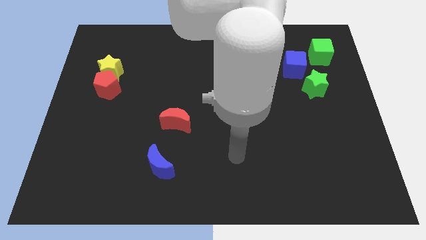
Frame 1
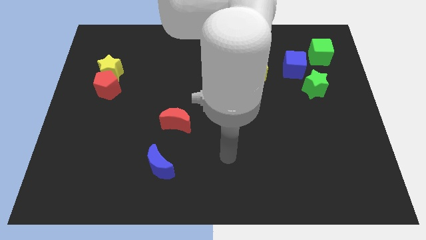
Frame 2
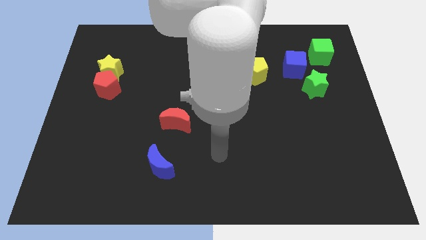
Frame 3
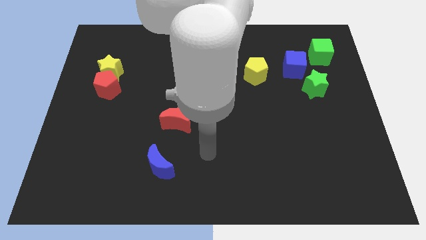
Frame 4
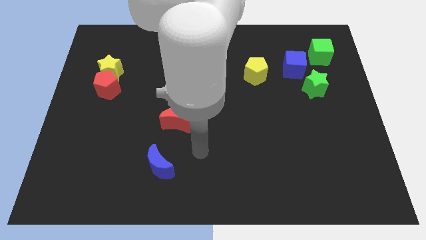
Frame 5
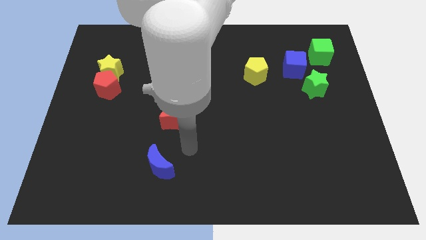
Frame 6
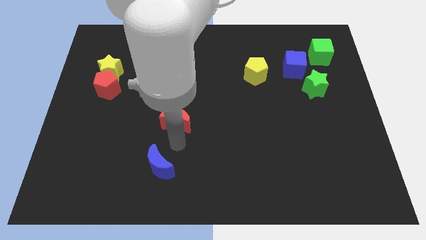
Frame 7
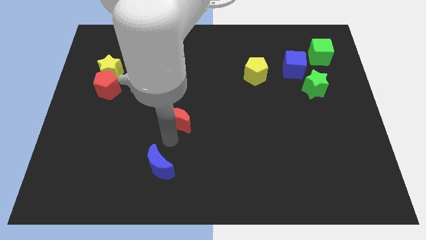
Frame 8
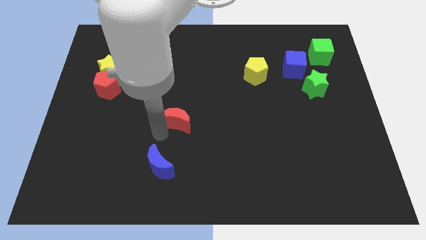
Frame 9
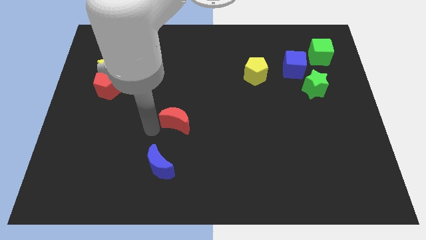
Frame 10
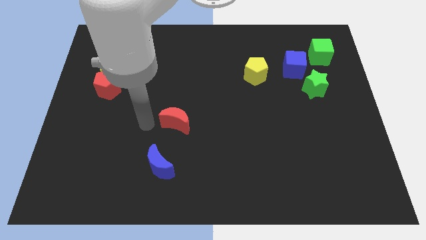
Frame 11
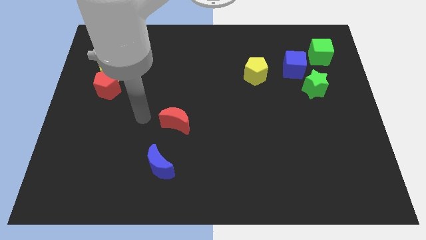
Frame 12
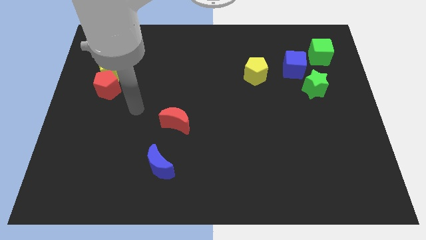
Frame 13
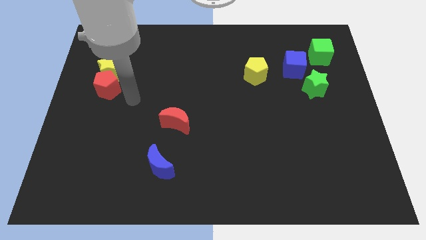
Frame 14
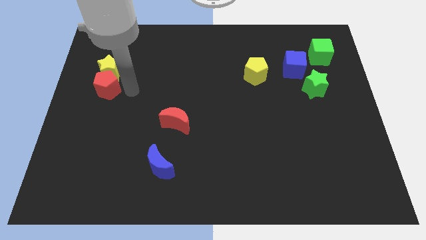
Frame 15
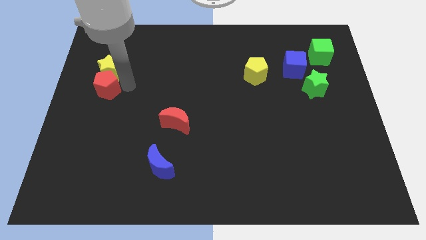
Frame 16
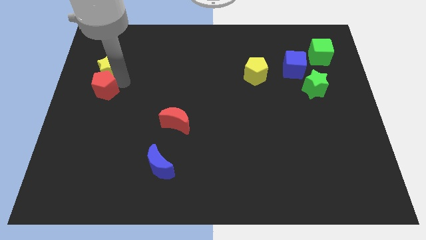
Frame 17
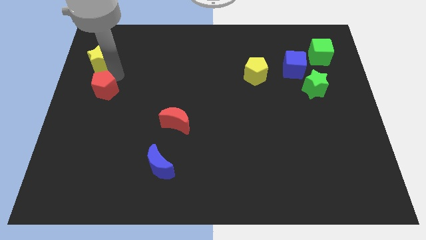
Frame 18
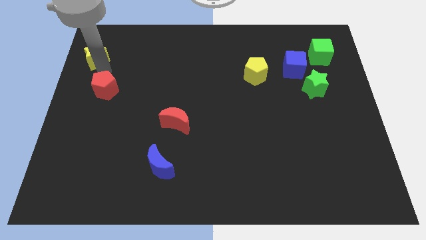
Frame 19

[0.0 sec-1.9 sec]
move the red pentagon away from the yellow star

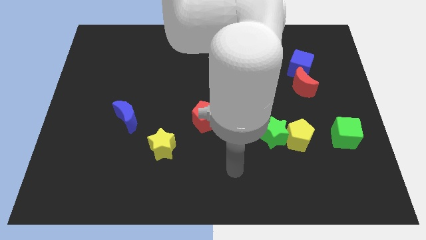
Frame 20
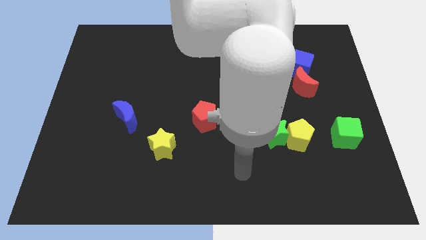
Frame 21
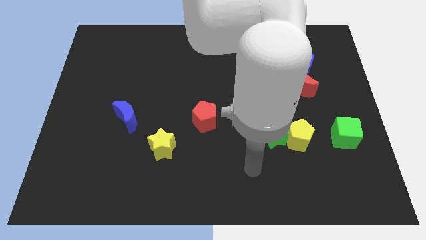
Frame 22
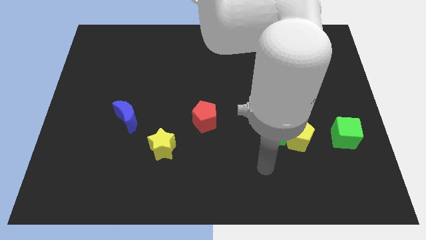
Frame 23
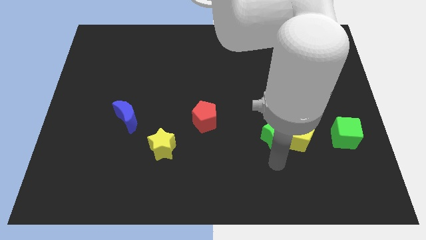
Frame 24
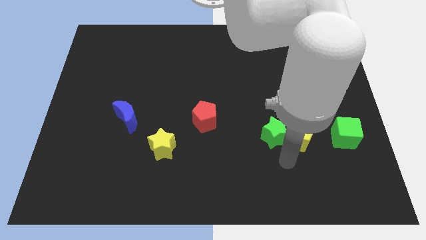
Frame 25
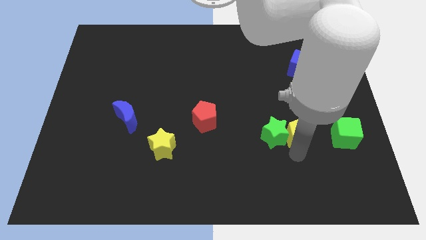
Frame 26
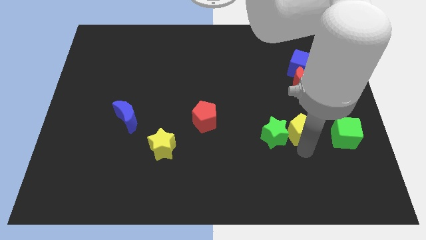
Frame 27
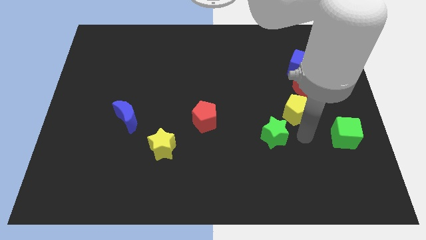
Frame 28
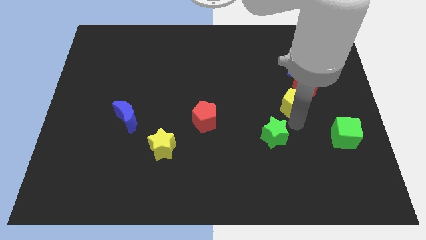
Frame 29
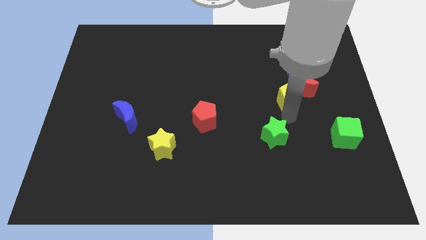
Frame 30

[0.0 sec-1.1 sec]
move the green star away from the yellow pentagon

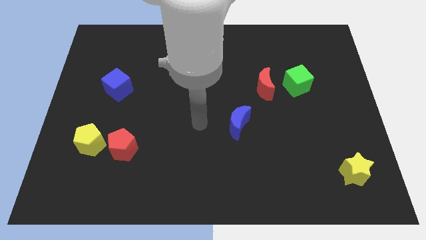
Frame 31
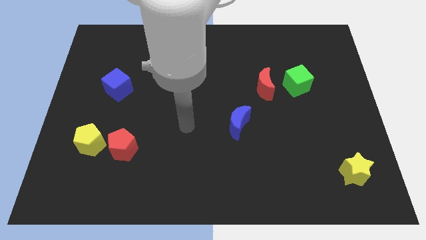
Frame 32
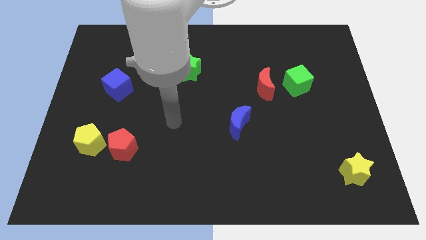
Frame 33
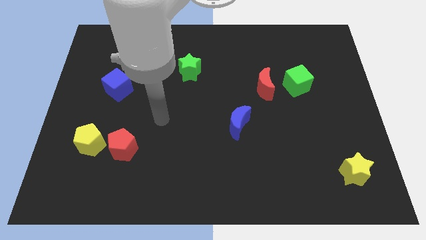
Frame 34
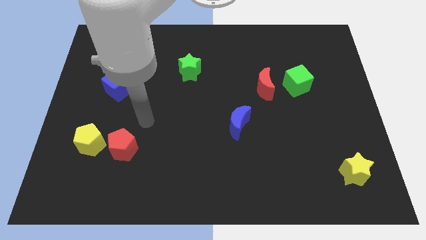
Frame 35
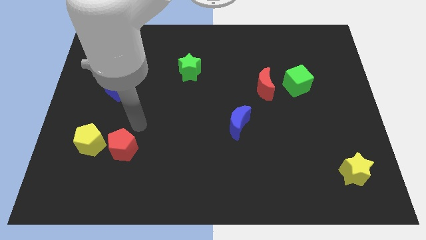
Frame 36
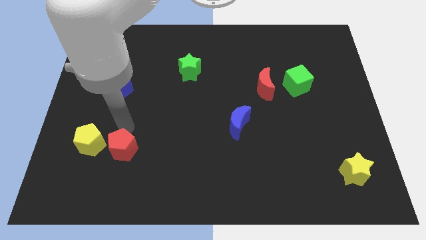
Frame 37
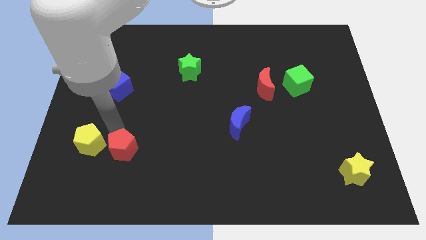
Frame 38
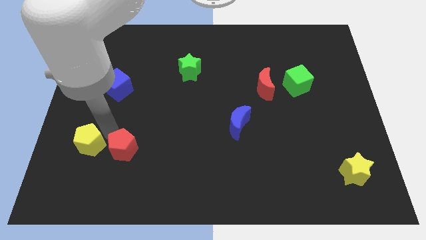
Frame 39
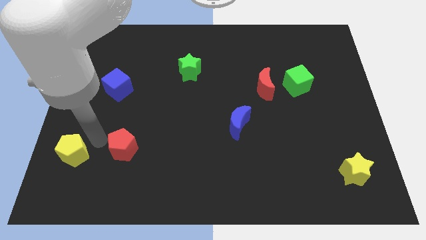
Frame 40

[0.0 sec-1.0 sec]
separate the red pentagon from the yellow pentagon

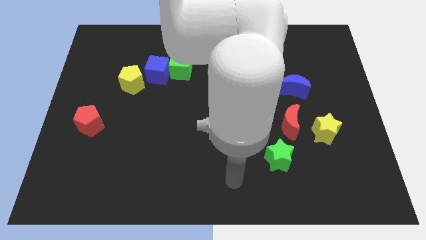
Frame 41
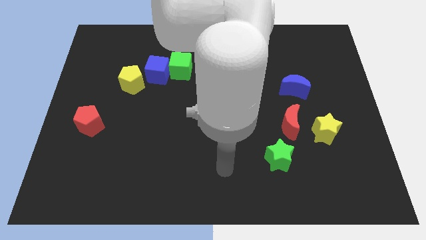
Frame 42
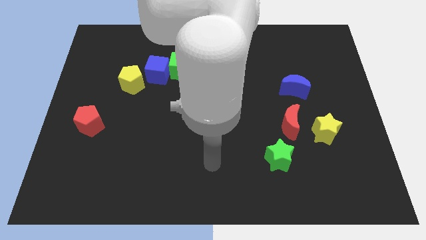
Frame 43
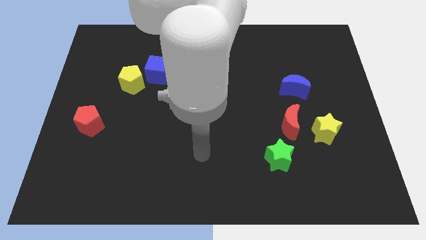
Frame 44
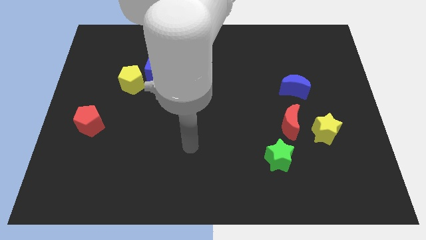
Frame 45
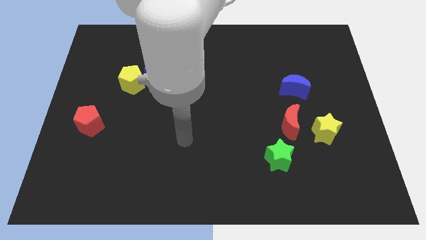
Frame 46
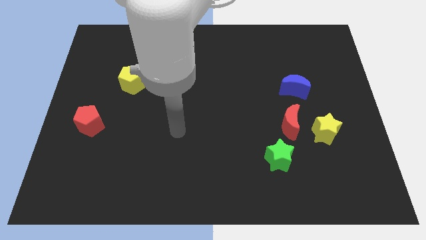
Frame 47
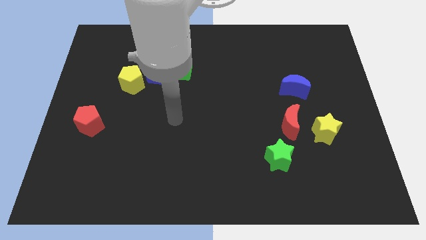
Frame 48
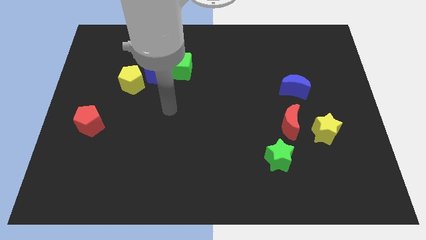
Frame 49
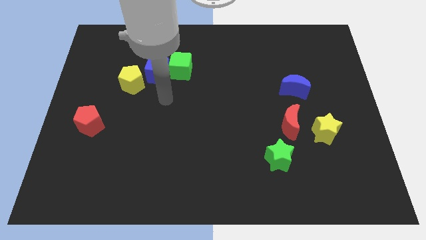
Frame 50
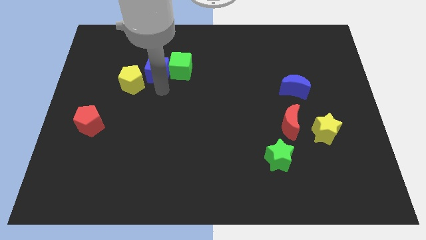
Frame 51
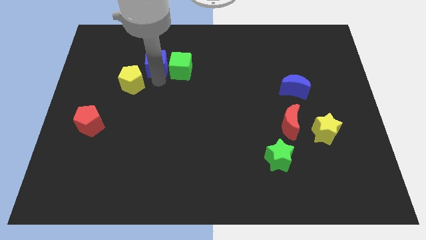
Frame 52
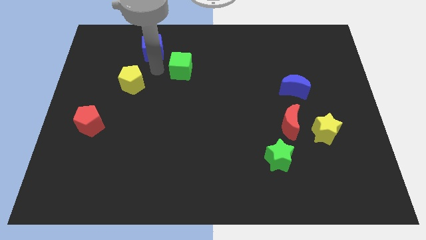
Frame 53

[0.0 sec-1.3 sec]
move the green cube away from the blue cube

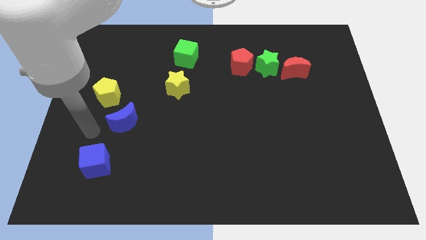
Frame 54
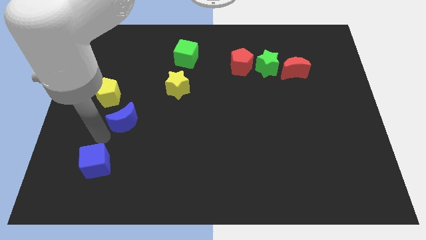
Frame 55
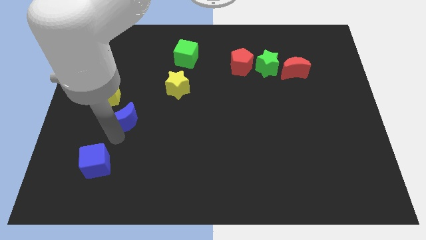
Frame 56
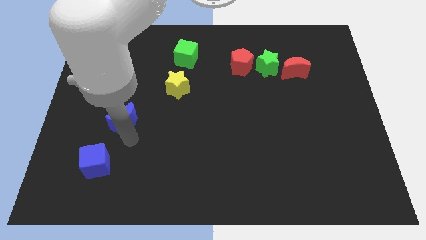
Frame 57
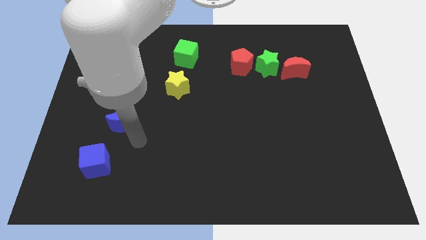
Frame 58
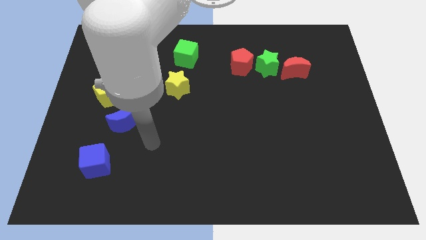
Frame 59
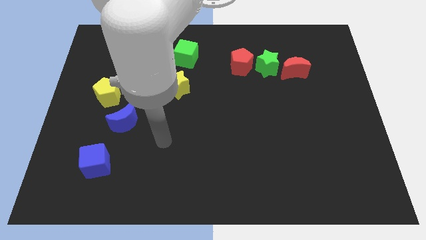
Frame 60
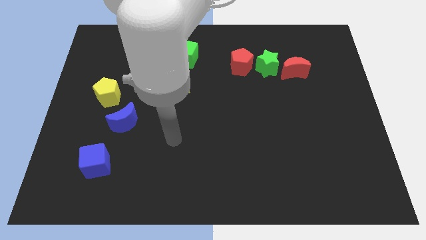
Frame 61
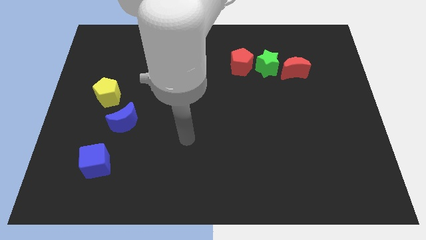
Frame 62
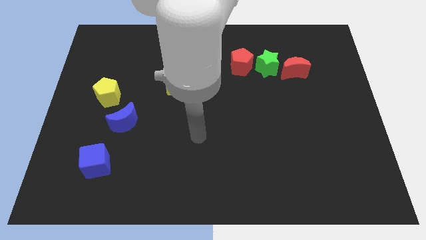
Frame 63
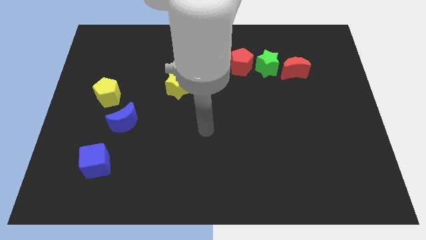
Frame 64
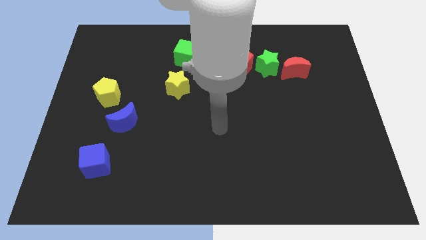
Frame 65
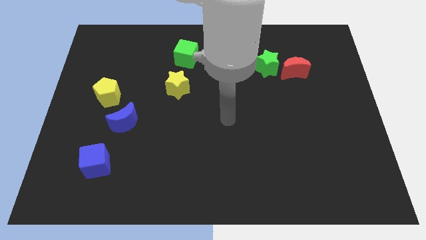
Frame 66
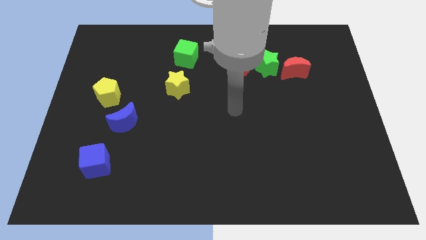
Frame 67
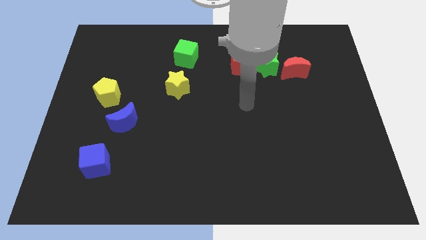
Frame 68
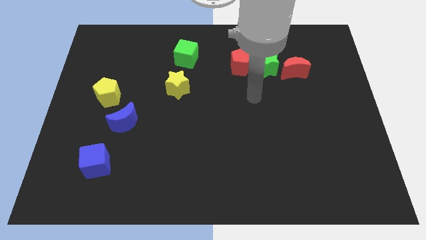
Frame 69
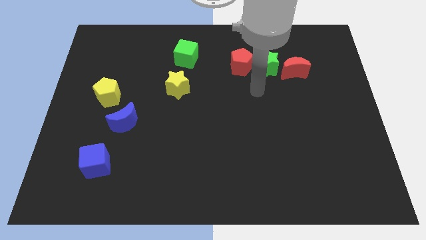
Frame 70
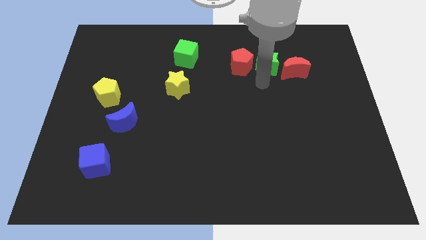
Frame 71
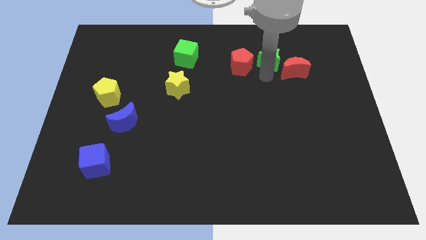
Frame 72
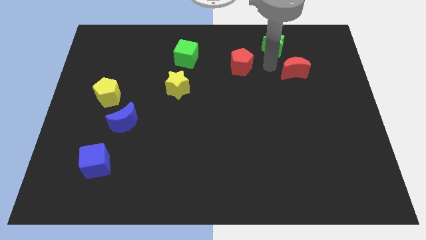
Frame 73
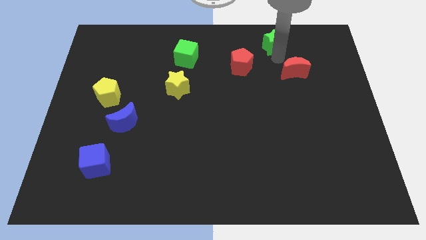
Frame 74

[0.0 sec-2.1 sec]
separate the red moon from the green star

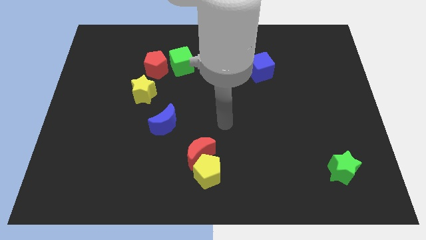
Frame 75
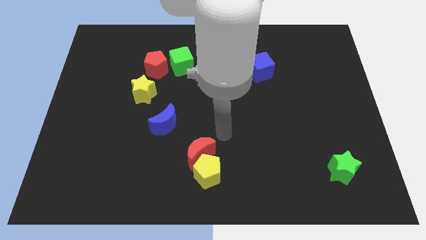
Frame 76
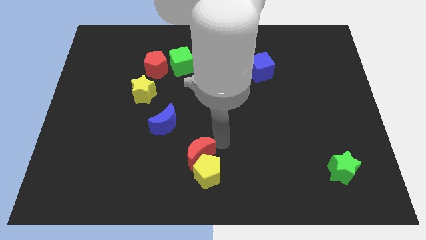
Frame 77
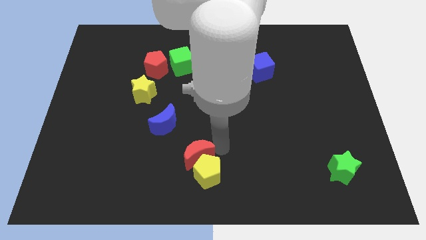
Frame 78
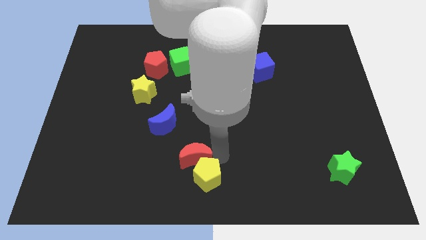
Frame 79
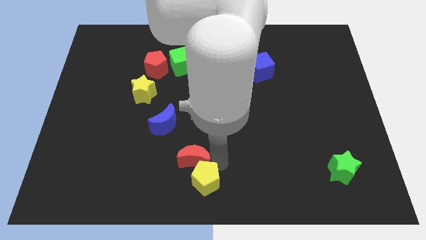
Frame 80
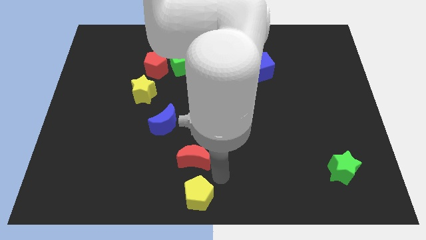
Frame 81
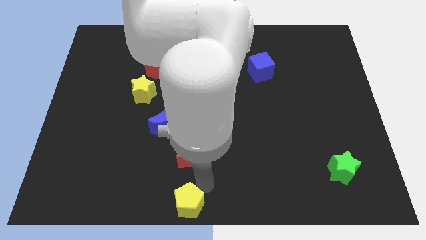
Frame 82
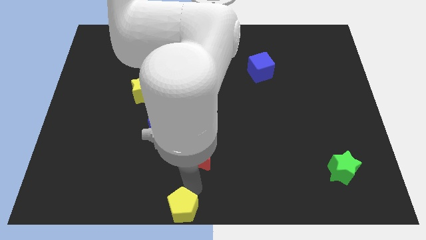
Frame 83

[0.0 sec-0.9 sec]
separate the red moon from the yellow pentagon

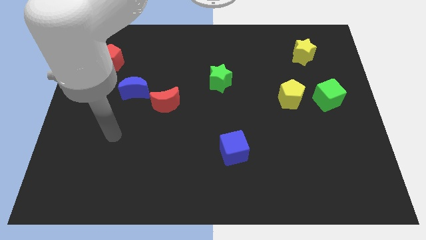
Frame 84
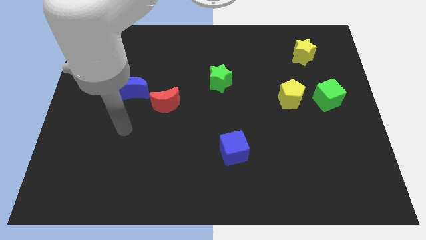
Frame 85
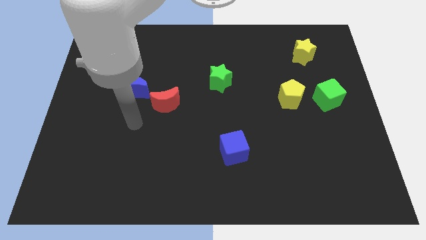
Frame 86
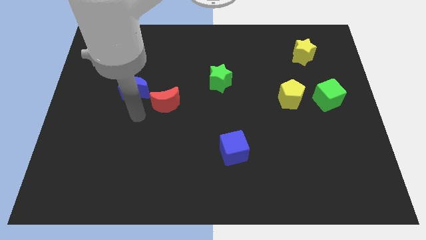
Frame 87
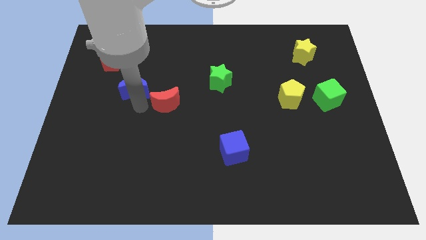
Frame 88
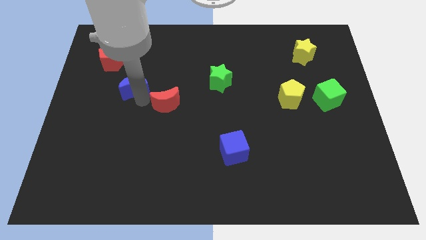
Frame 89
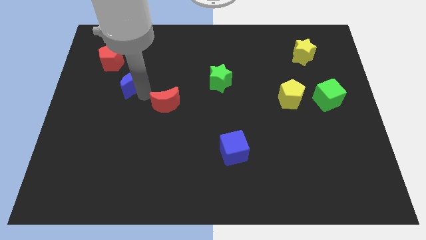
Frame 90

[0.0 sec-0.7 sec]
move the red moon away from the blue moon

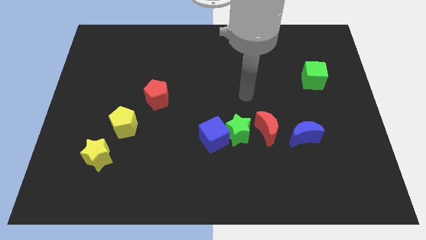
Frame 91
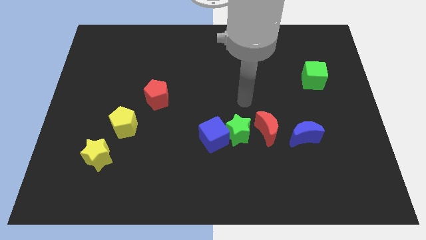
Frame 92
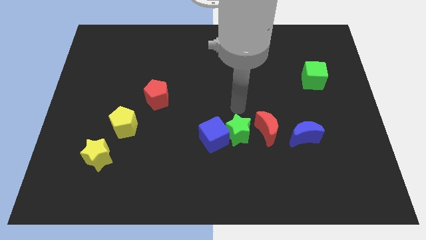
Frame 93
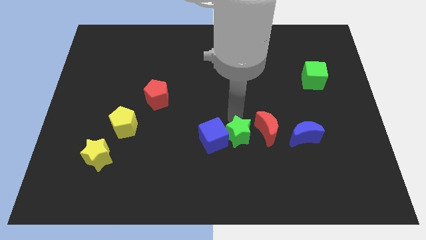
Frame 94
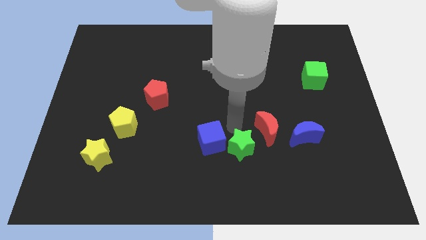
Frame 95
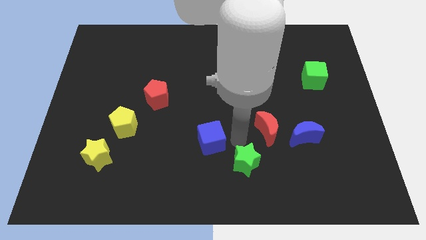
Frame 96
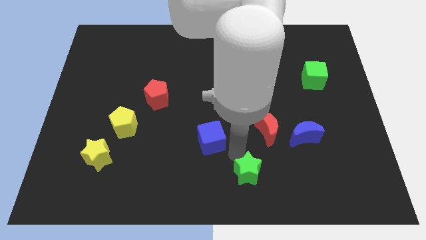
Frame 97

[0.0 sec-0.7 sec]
separate the blue cube from the green star
